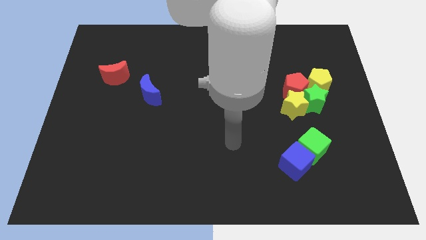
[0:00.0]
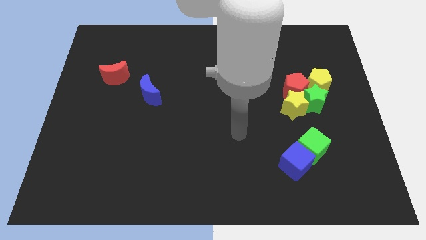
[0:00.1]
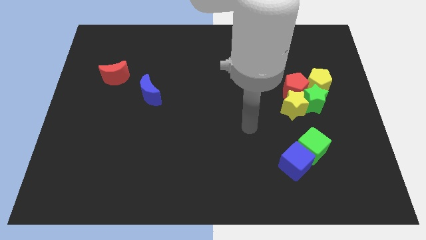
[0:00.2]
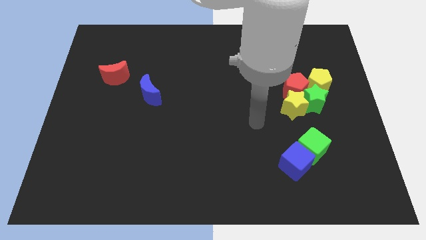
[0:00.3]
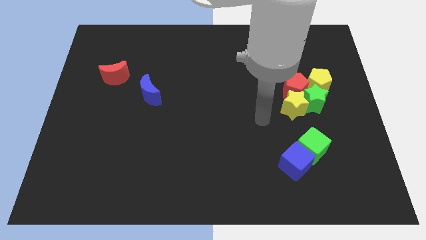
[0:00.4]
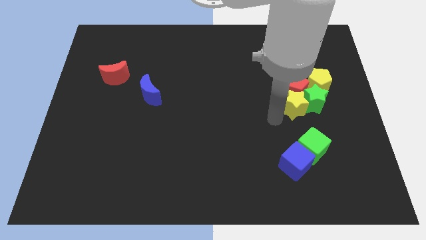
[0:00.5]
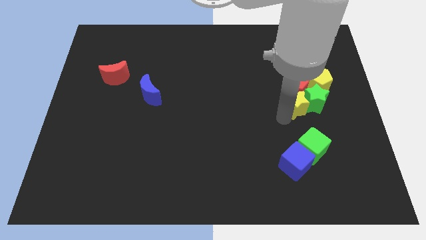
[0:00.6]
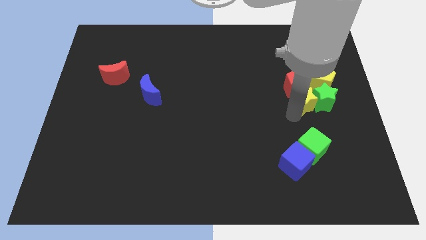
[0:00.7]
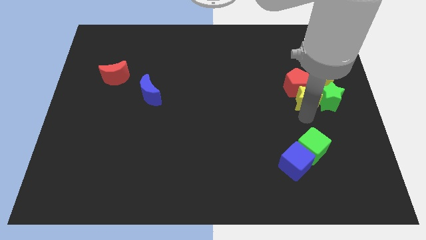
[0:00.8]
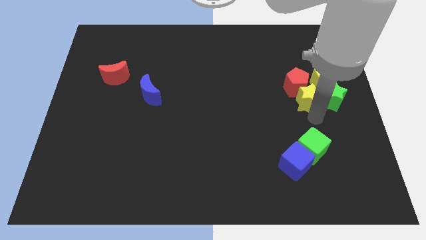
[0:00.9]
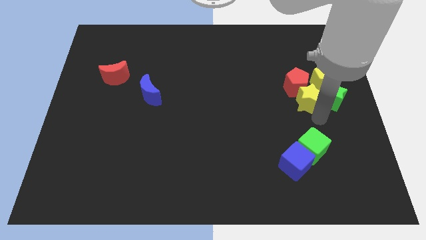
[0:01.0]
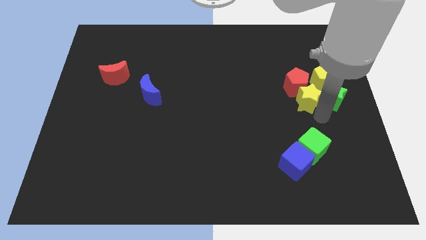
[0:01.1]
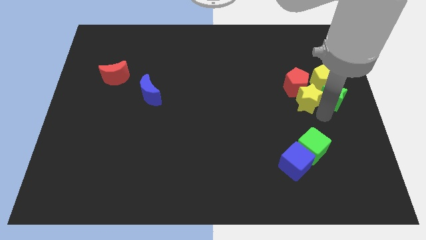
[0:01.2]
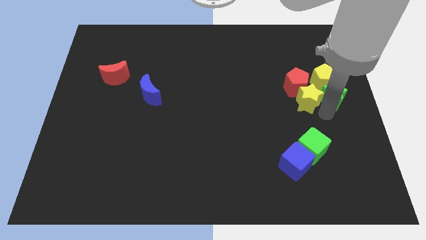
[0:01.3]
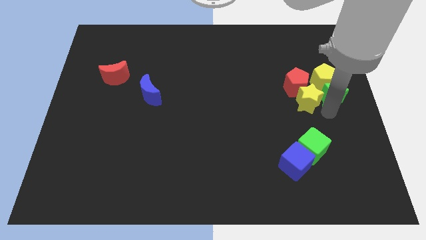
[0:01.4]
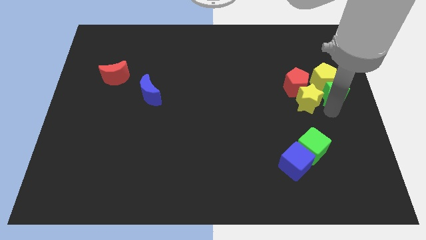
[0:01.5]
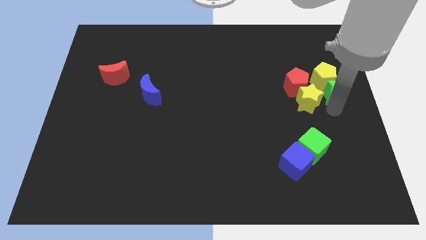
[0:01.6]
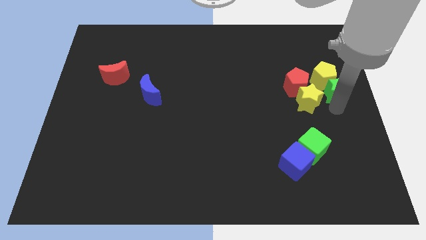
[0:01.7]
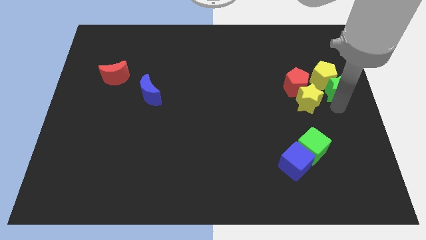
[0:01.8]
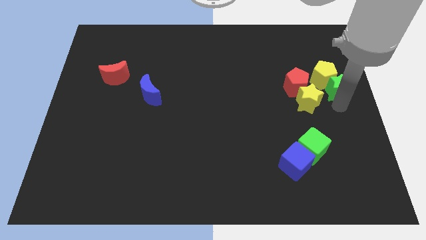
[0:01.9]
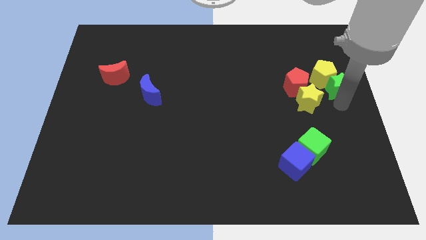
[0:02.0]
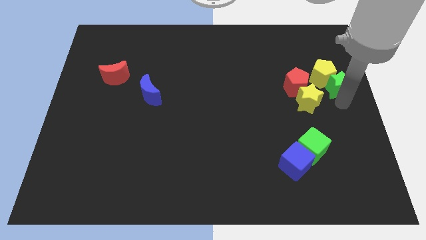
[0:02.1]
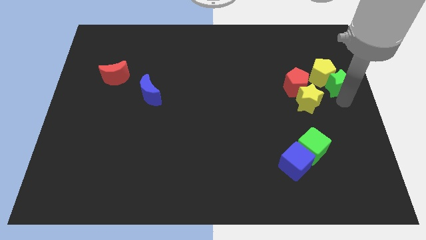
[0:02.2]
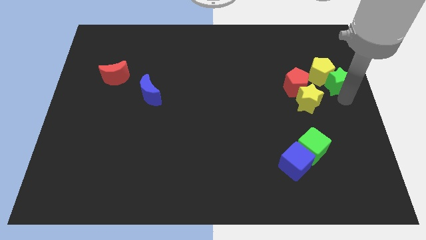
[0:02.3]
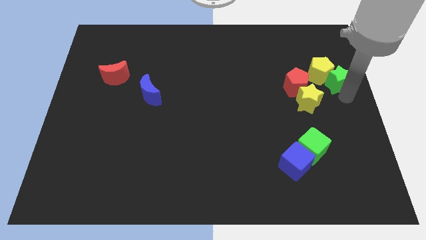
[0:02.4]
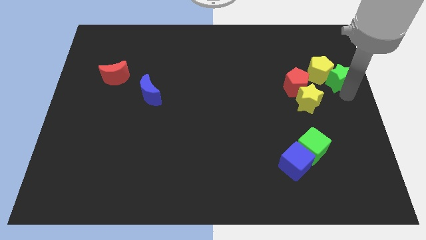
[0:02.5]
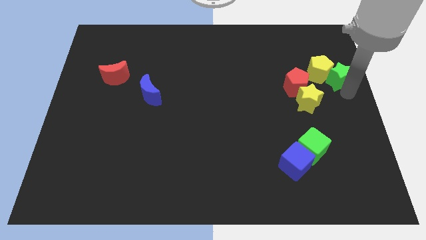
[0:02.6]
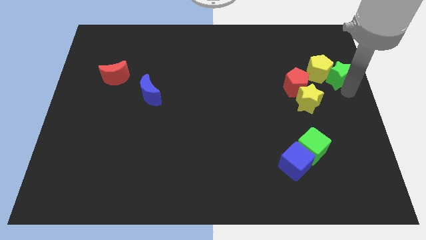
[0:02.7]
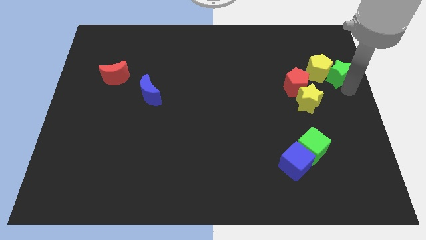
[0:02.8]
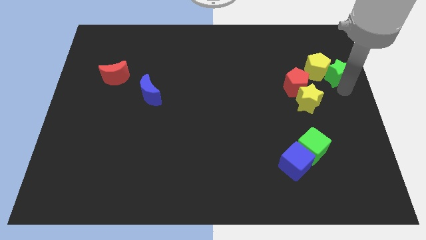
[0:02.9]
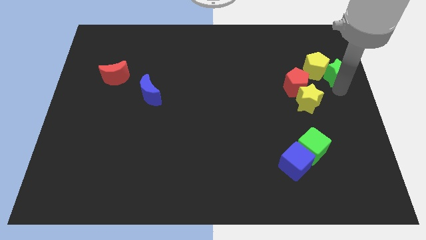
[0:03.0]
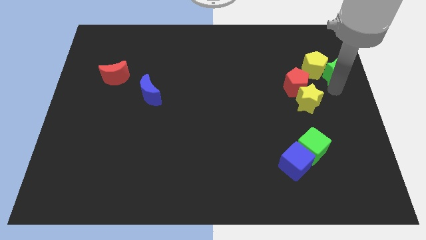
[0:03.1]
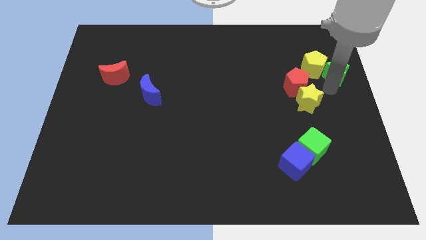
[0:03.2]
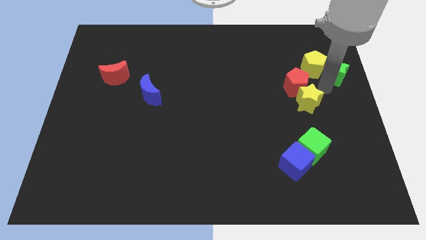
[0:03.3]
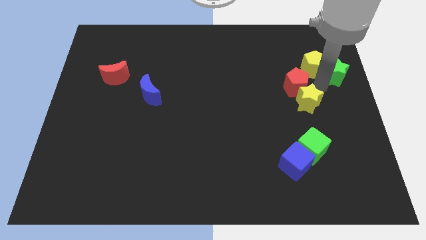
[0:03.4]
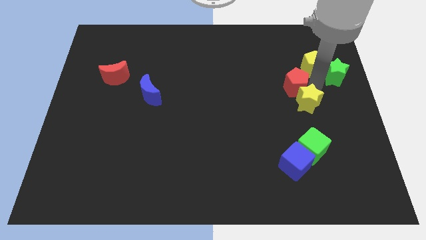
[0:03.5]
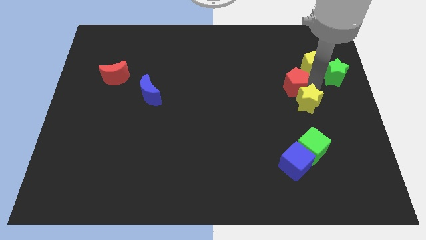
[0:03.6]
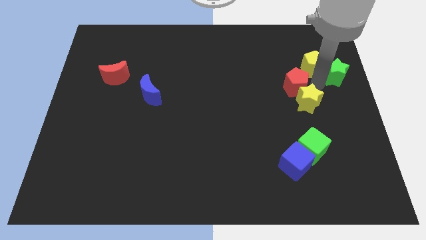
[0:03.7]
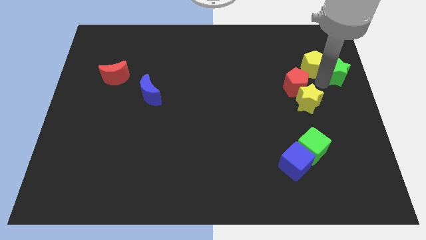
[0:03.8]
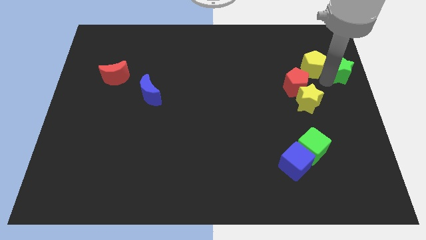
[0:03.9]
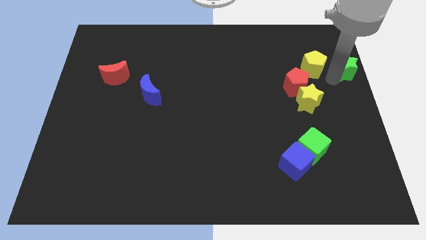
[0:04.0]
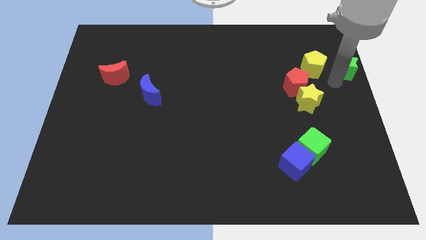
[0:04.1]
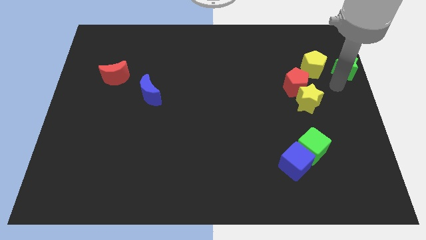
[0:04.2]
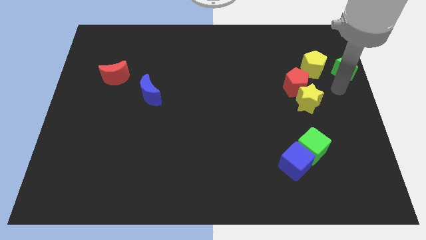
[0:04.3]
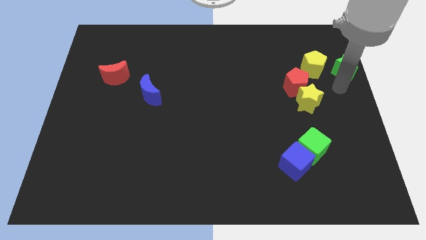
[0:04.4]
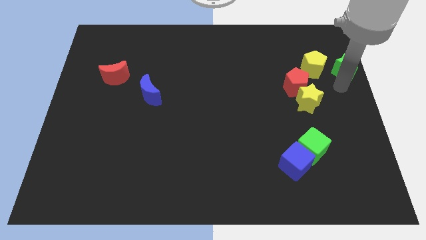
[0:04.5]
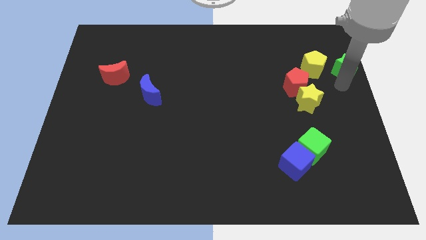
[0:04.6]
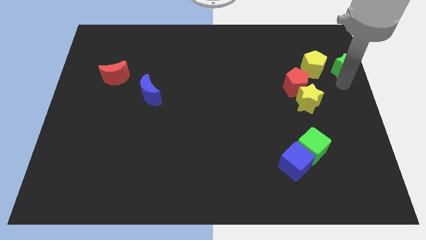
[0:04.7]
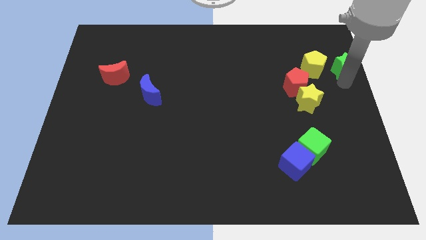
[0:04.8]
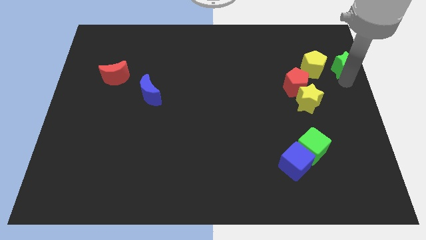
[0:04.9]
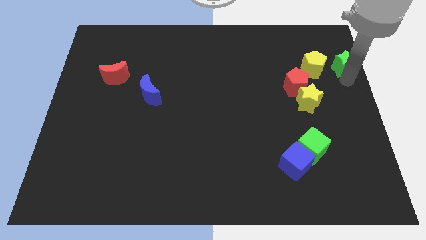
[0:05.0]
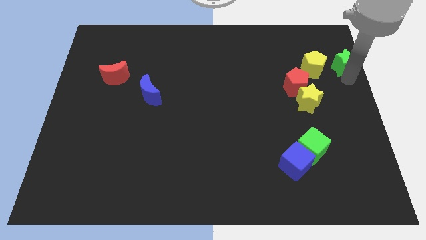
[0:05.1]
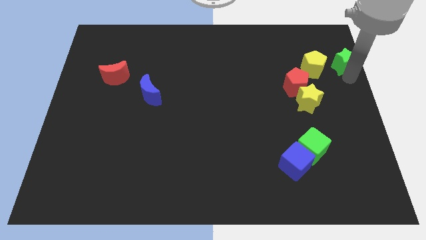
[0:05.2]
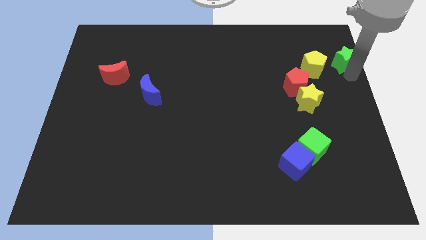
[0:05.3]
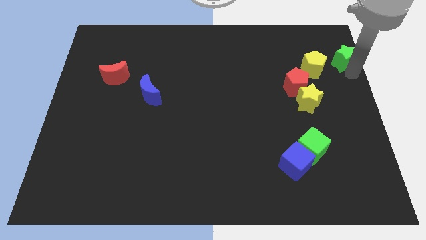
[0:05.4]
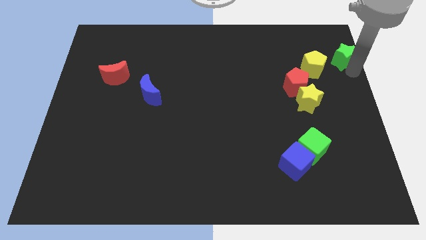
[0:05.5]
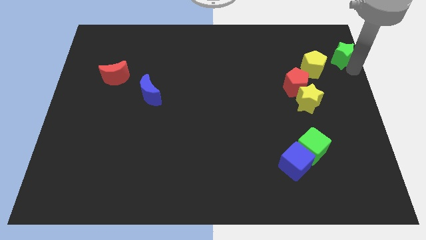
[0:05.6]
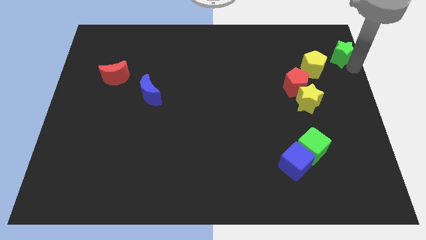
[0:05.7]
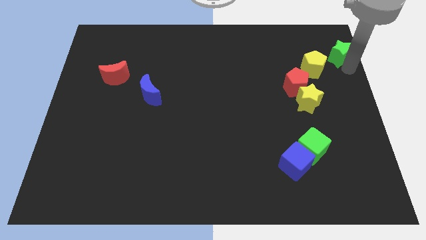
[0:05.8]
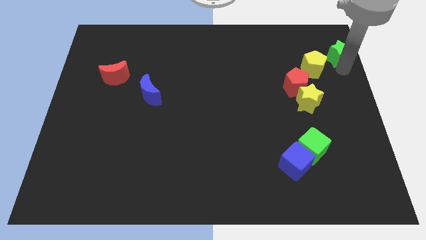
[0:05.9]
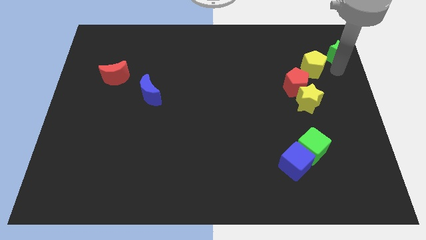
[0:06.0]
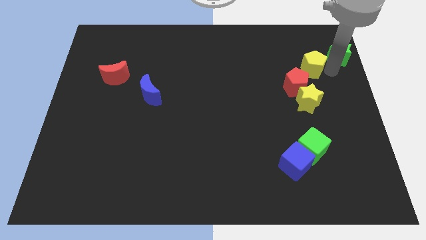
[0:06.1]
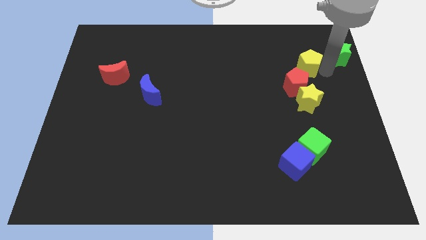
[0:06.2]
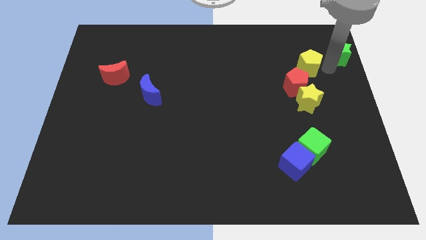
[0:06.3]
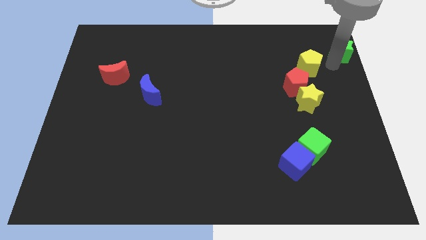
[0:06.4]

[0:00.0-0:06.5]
push the green star to the top right of the board
